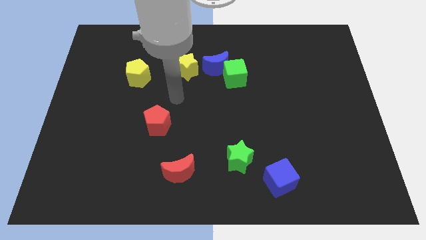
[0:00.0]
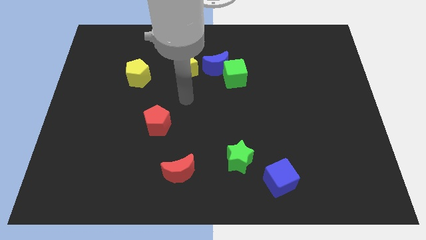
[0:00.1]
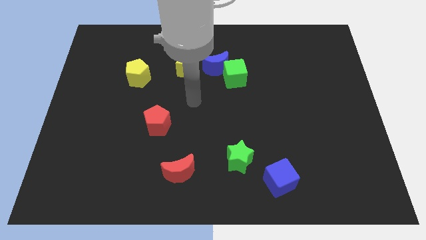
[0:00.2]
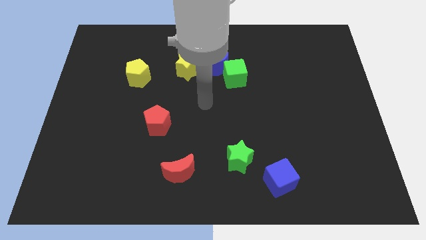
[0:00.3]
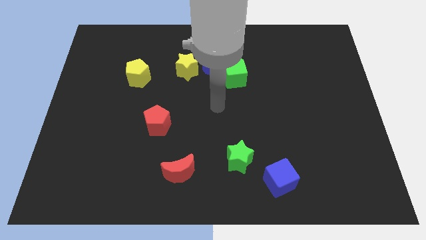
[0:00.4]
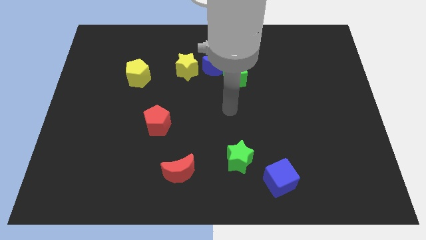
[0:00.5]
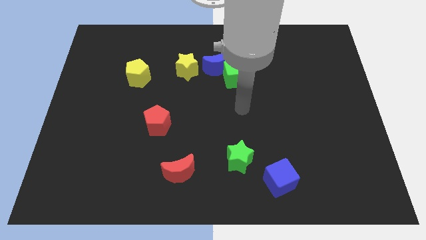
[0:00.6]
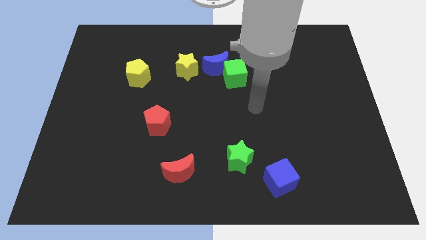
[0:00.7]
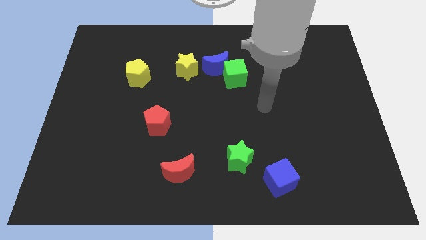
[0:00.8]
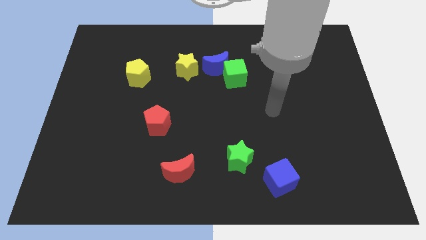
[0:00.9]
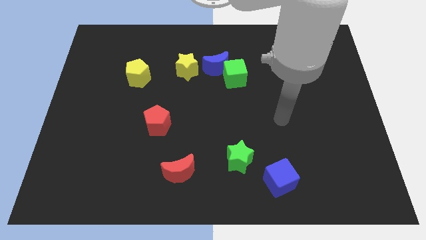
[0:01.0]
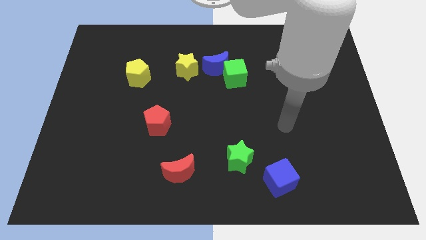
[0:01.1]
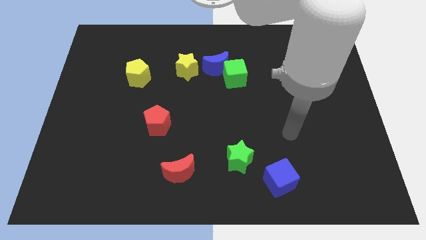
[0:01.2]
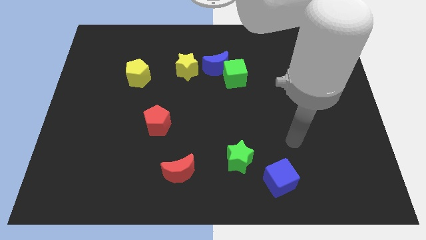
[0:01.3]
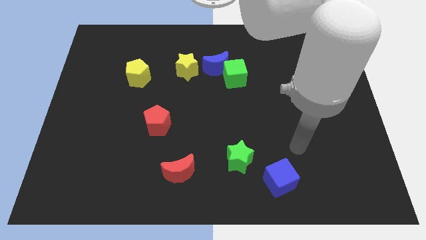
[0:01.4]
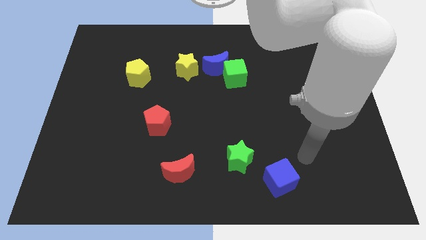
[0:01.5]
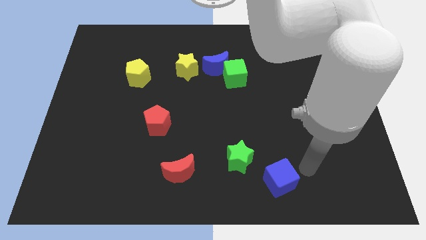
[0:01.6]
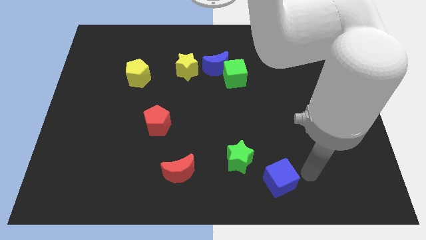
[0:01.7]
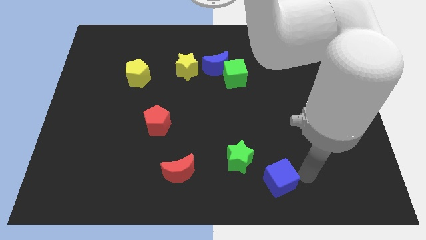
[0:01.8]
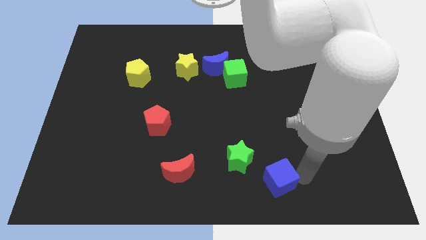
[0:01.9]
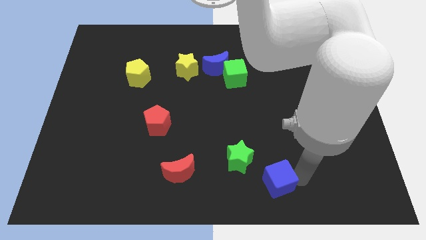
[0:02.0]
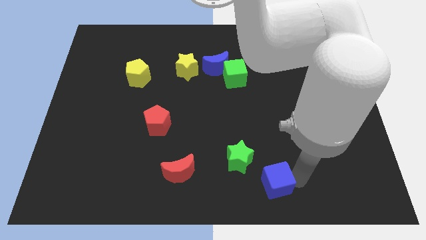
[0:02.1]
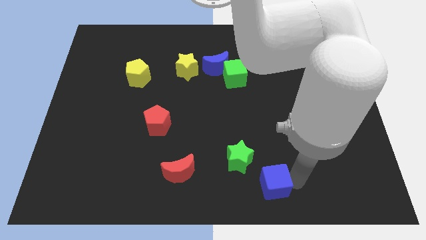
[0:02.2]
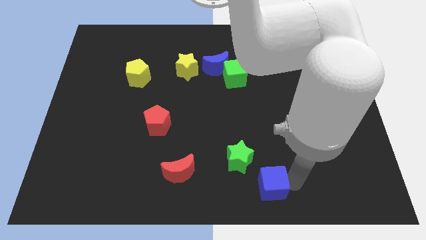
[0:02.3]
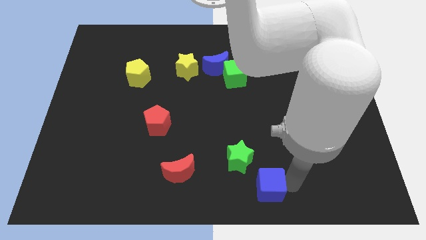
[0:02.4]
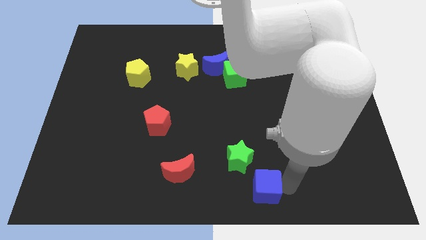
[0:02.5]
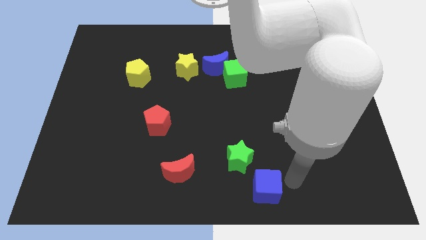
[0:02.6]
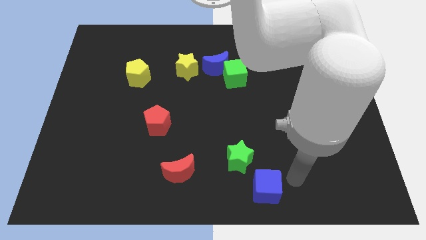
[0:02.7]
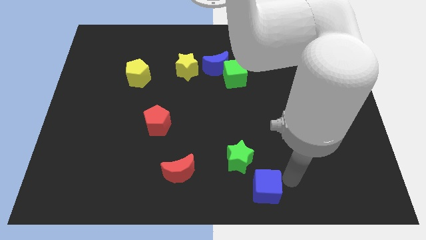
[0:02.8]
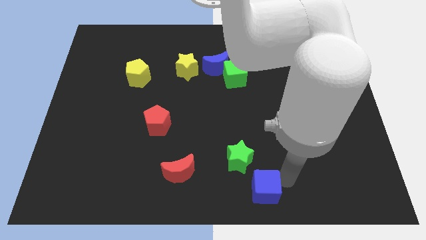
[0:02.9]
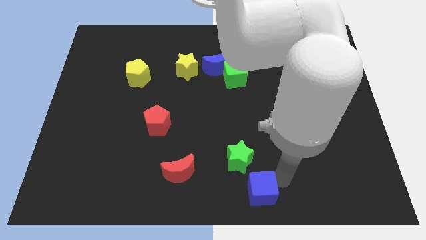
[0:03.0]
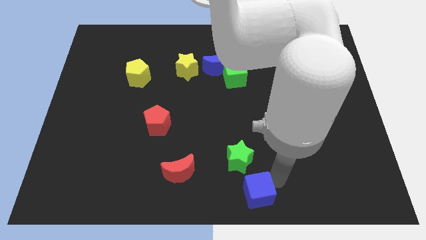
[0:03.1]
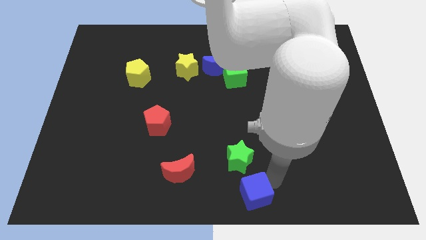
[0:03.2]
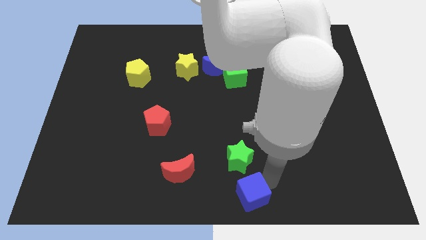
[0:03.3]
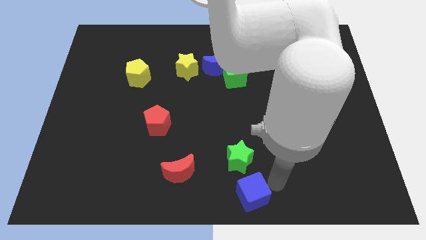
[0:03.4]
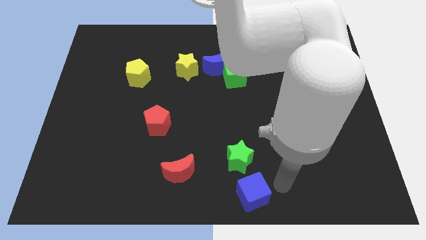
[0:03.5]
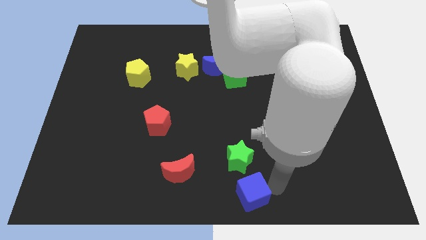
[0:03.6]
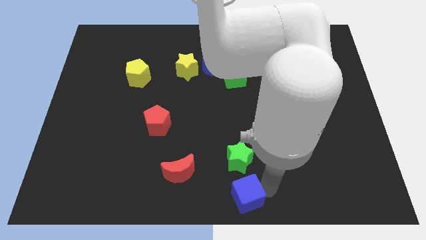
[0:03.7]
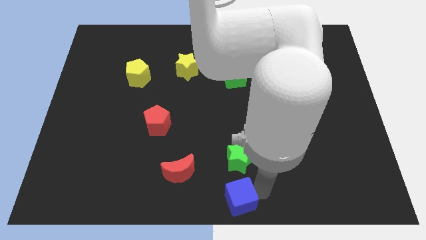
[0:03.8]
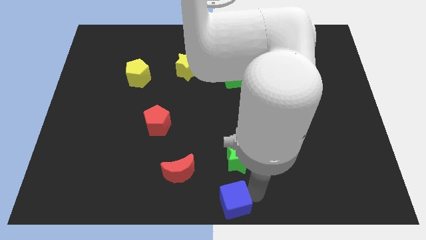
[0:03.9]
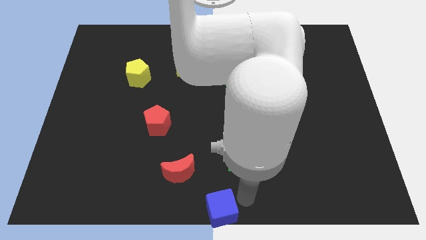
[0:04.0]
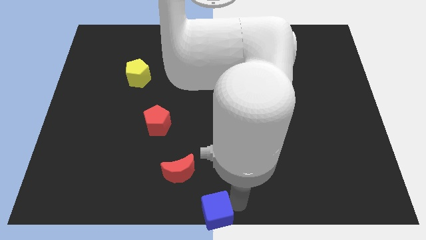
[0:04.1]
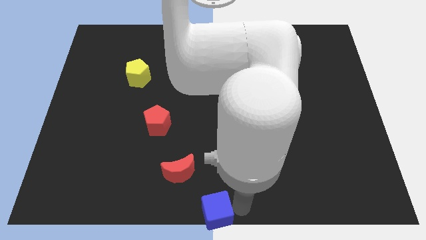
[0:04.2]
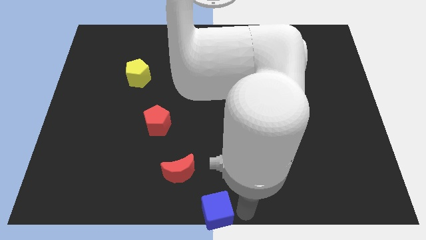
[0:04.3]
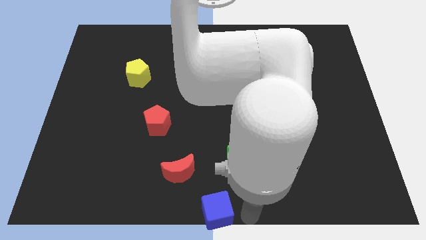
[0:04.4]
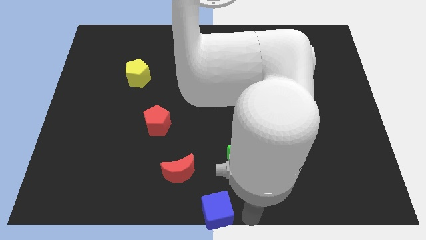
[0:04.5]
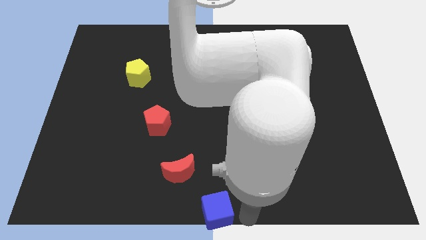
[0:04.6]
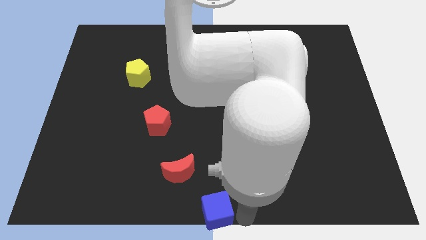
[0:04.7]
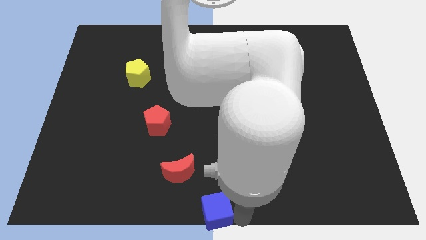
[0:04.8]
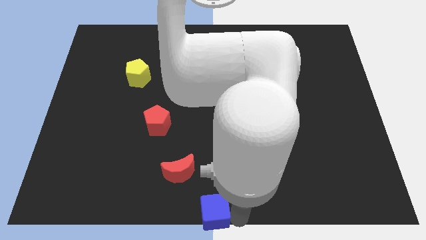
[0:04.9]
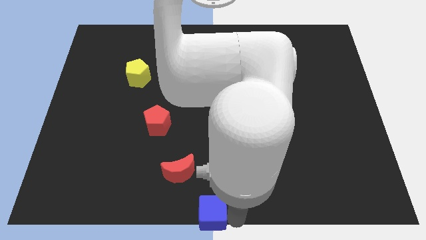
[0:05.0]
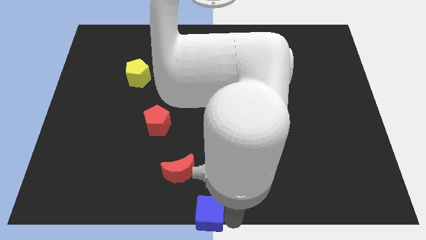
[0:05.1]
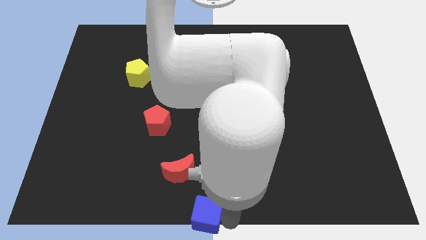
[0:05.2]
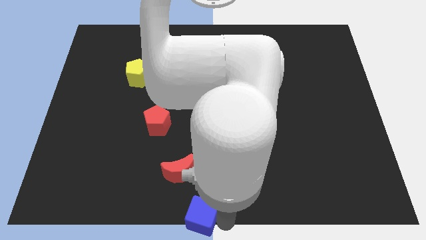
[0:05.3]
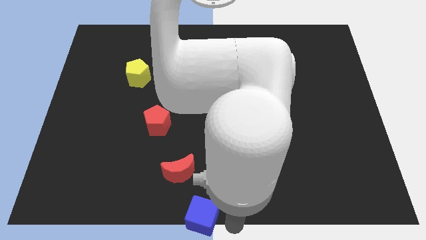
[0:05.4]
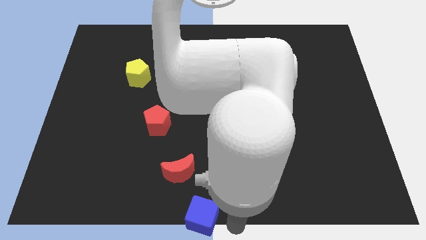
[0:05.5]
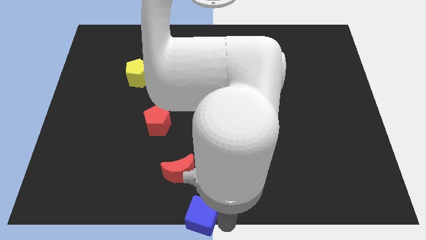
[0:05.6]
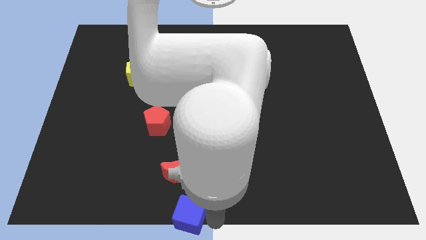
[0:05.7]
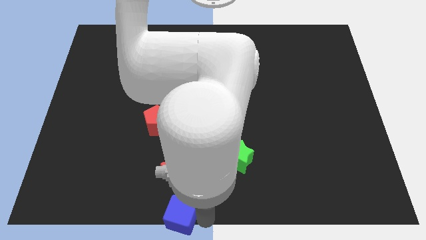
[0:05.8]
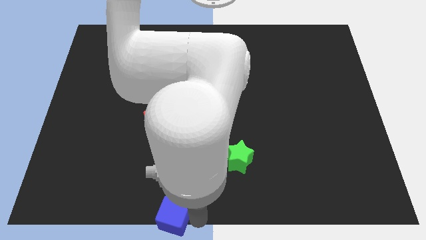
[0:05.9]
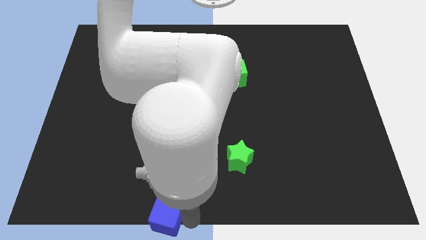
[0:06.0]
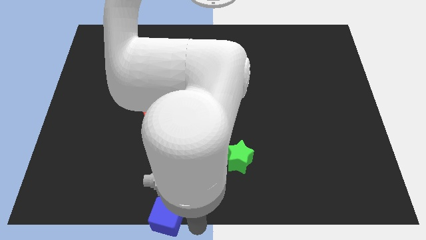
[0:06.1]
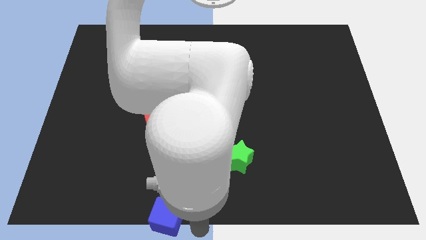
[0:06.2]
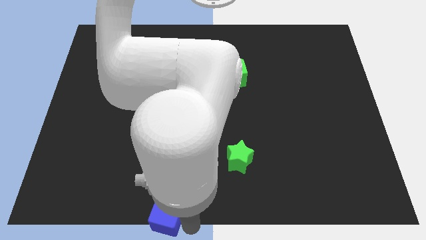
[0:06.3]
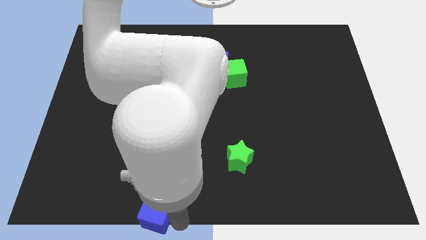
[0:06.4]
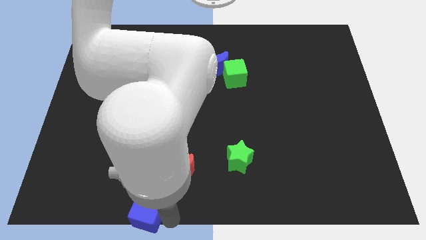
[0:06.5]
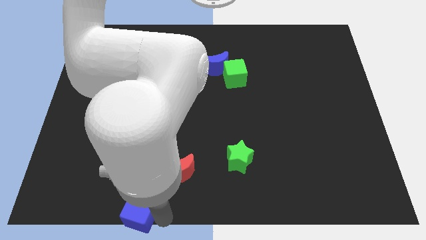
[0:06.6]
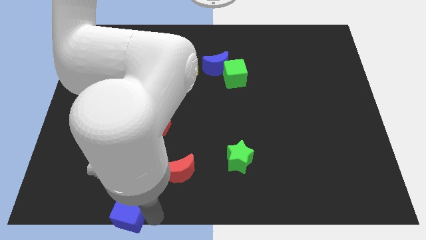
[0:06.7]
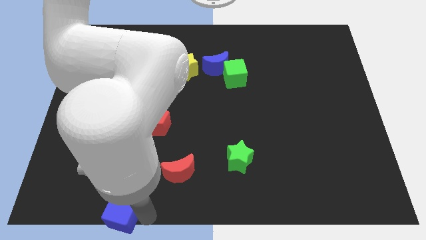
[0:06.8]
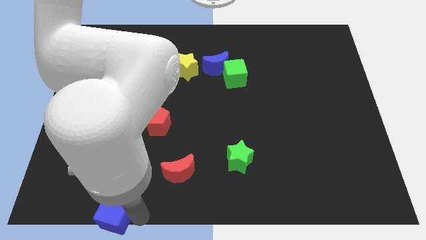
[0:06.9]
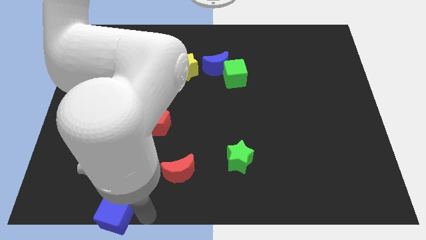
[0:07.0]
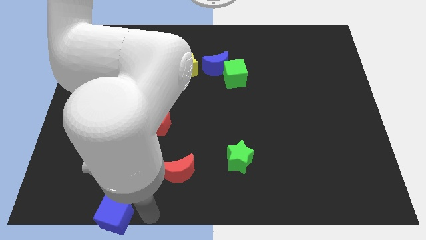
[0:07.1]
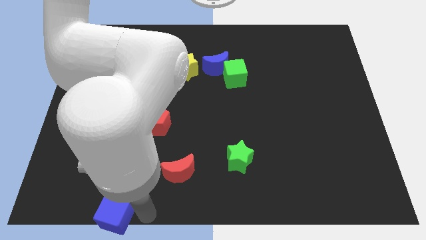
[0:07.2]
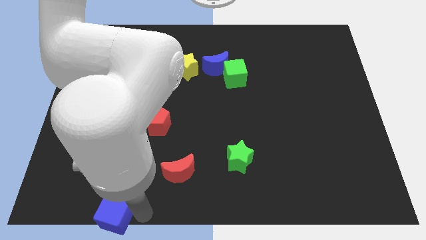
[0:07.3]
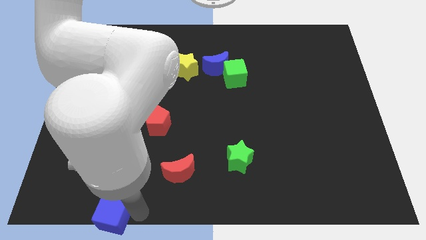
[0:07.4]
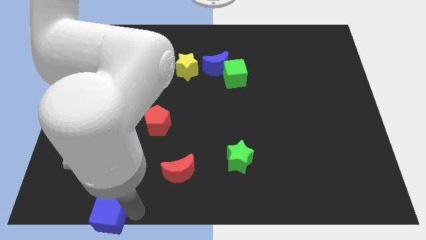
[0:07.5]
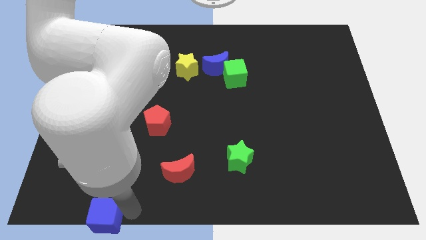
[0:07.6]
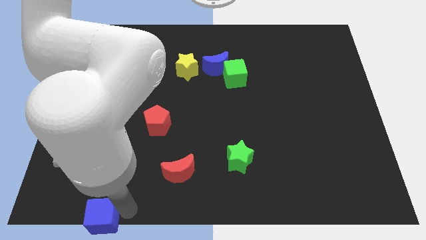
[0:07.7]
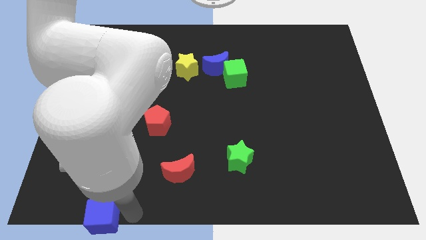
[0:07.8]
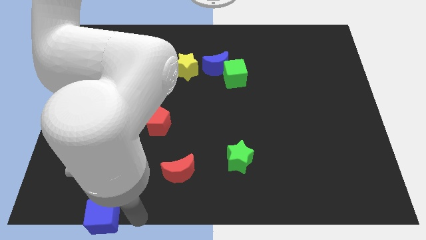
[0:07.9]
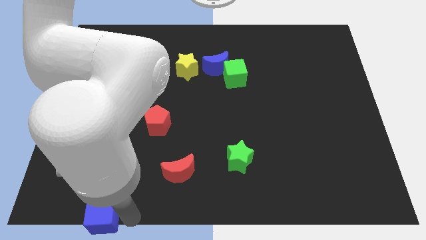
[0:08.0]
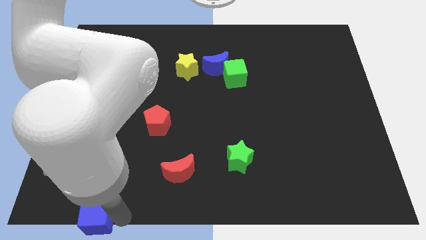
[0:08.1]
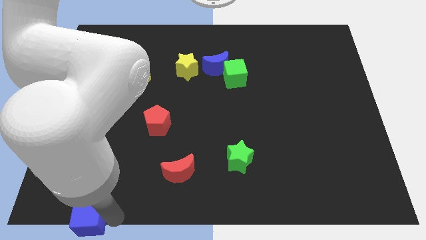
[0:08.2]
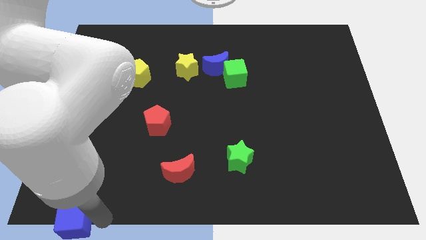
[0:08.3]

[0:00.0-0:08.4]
push the blue cube to the lower left corner
